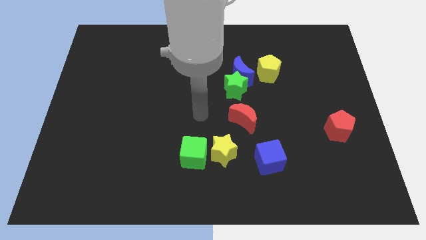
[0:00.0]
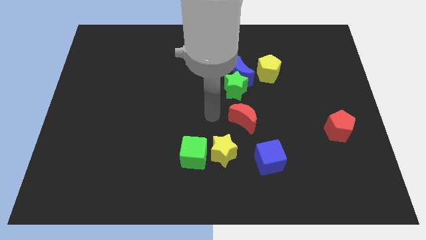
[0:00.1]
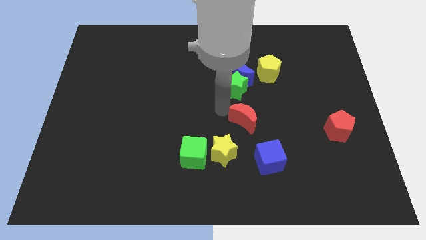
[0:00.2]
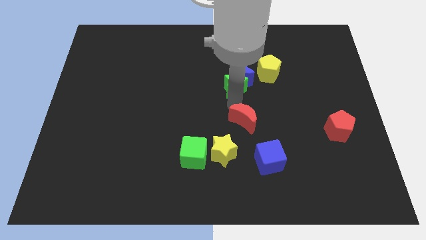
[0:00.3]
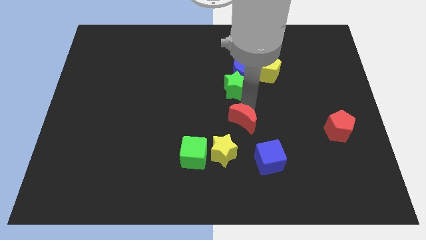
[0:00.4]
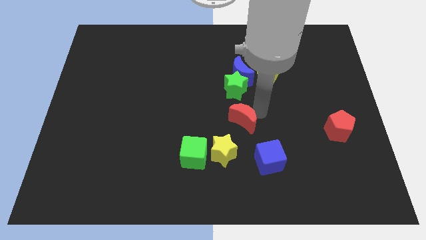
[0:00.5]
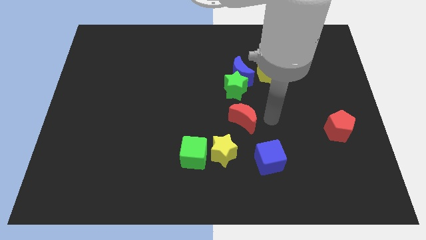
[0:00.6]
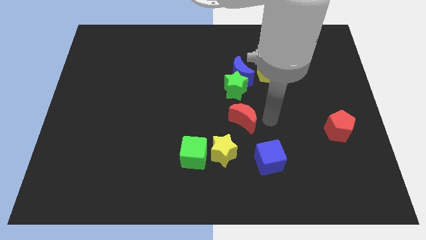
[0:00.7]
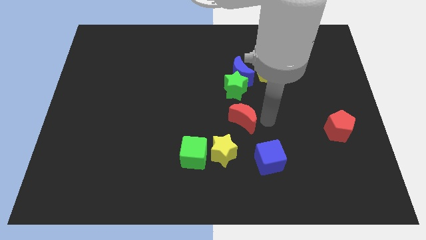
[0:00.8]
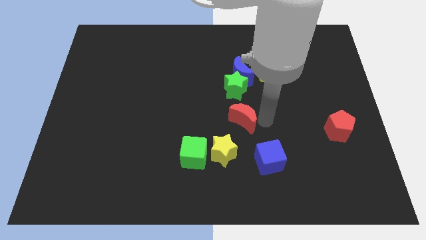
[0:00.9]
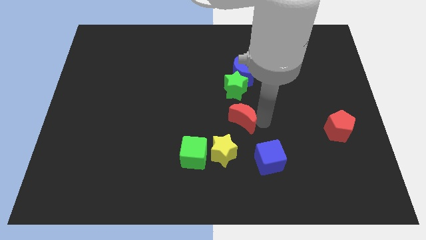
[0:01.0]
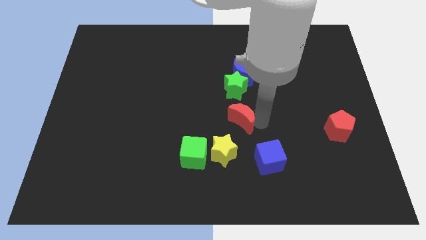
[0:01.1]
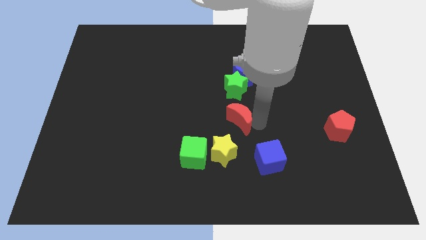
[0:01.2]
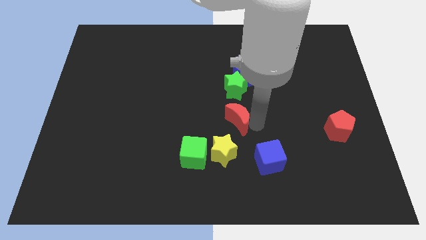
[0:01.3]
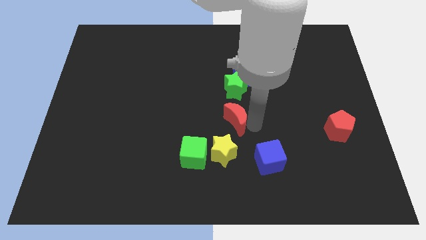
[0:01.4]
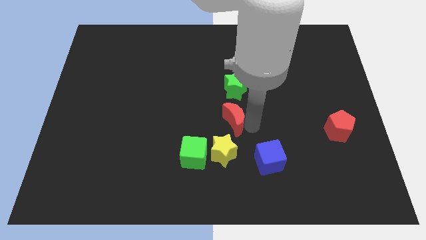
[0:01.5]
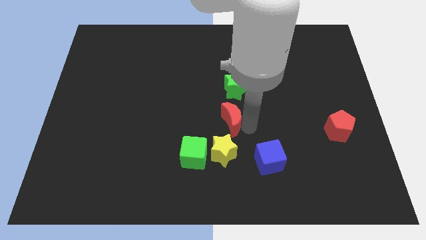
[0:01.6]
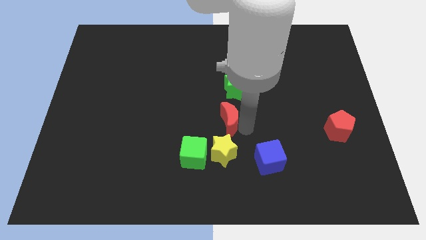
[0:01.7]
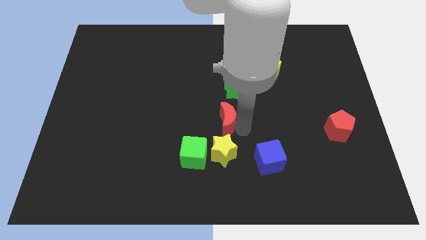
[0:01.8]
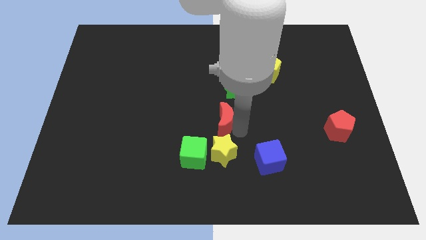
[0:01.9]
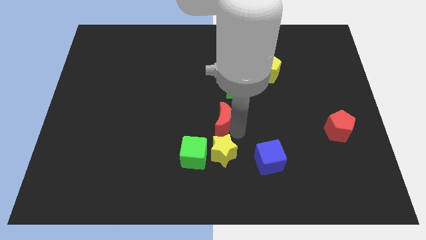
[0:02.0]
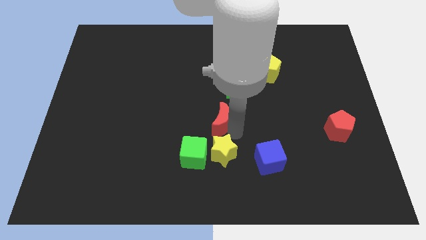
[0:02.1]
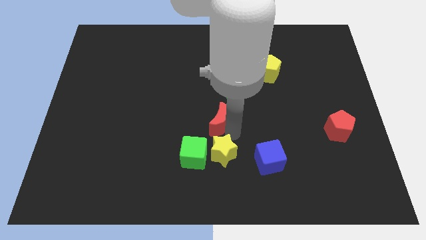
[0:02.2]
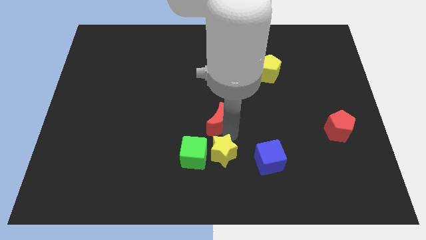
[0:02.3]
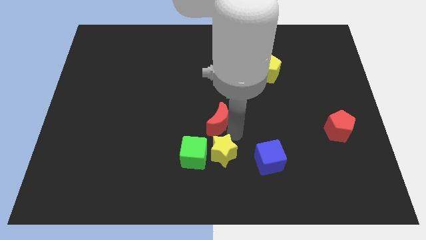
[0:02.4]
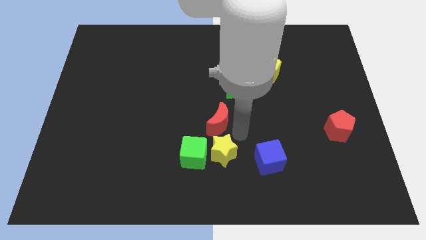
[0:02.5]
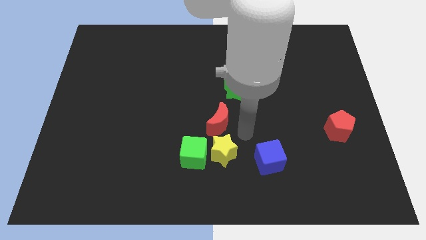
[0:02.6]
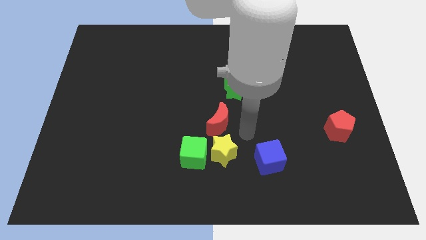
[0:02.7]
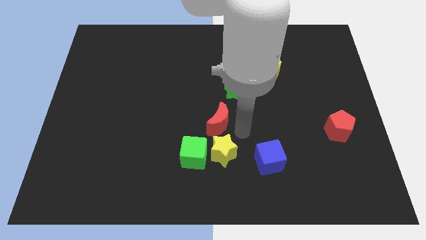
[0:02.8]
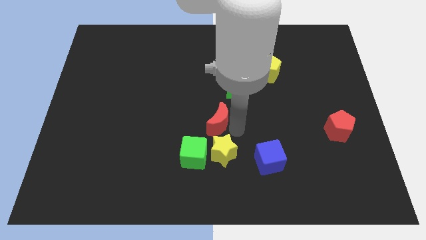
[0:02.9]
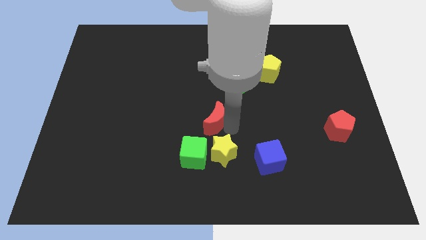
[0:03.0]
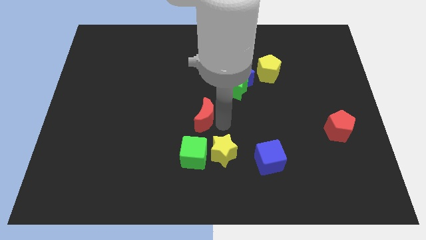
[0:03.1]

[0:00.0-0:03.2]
move the red moon somewhat left

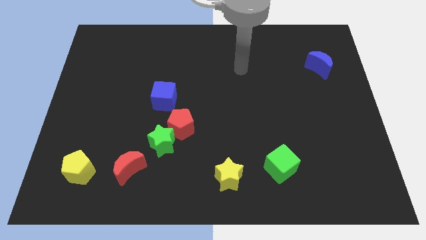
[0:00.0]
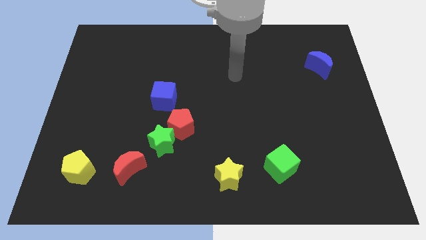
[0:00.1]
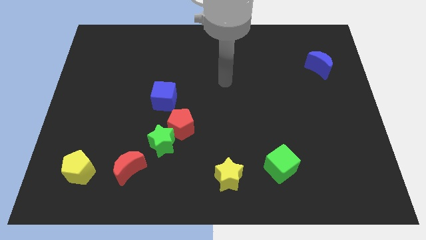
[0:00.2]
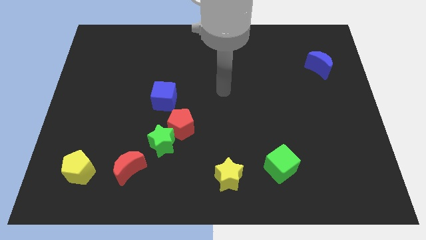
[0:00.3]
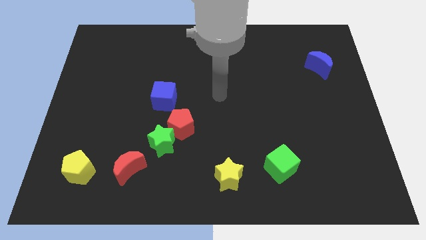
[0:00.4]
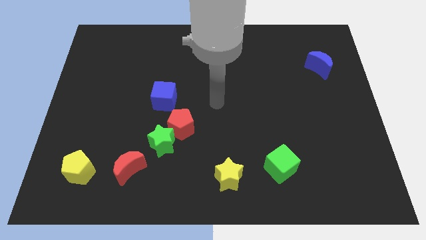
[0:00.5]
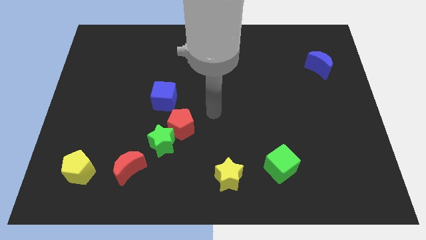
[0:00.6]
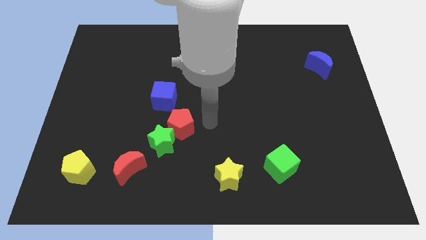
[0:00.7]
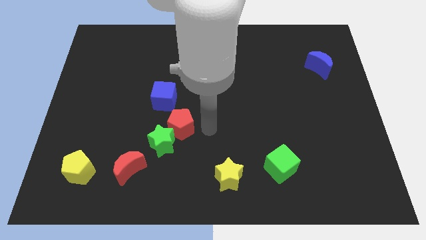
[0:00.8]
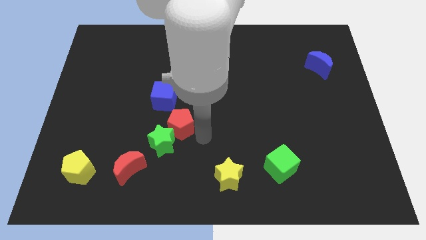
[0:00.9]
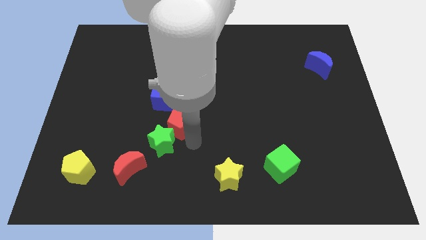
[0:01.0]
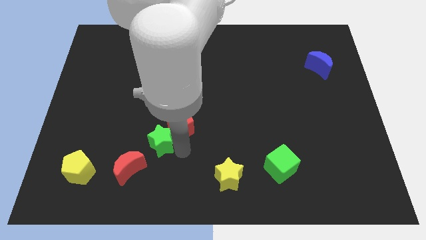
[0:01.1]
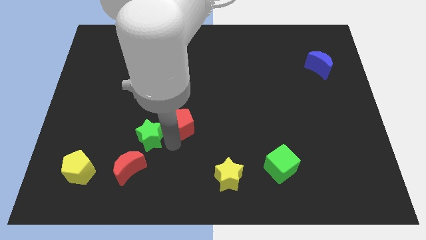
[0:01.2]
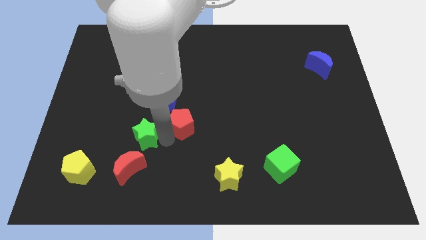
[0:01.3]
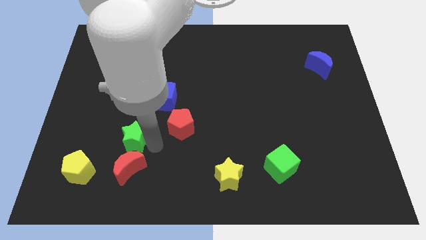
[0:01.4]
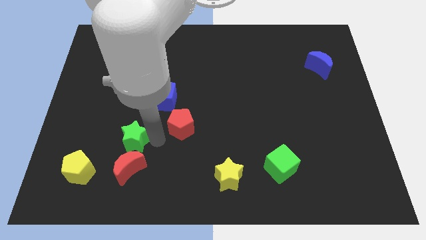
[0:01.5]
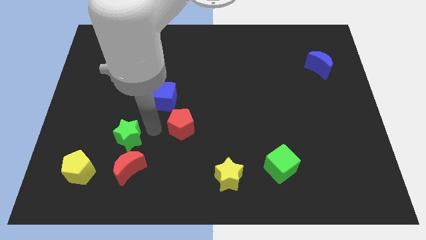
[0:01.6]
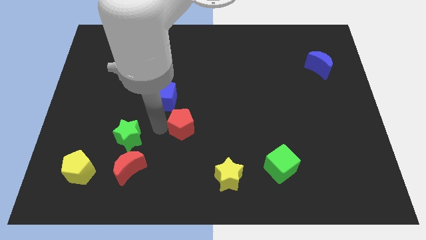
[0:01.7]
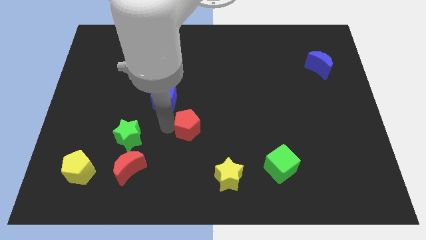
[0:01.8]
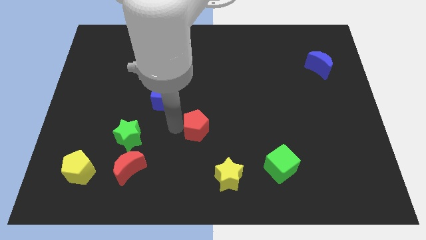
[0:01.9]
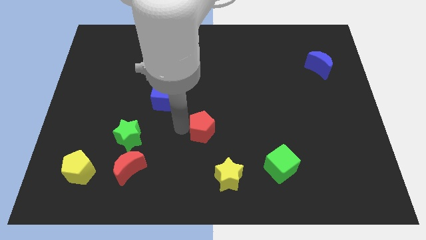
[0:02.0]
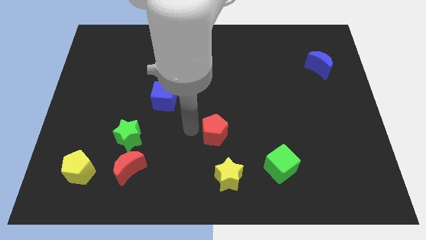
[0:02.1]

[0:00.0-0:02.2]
slide the red pentagon slightly to the right

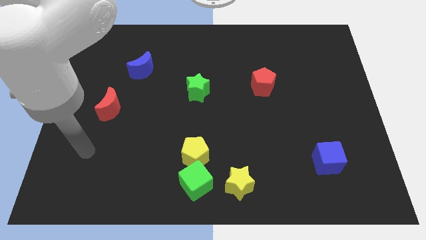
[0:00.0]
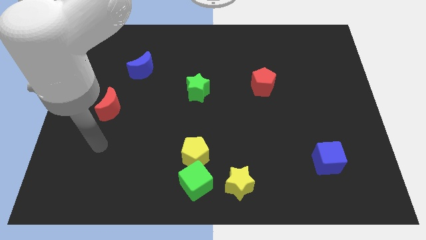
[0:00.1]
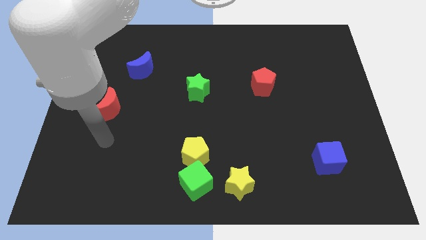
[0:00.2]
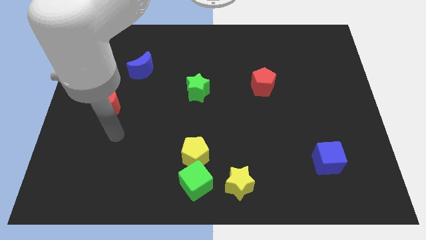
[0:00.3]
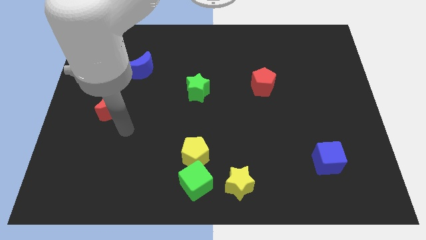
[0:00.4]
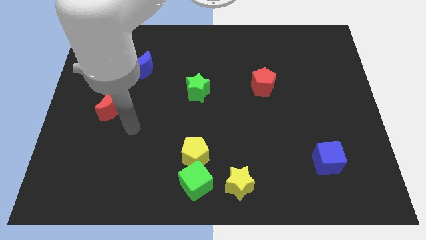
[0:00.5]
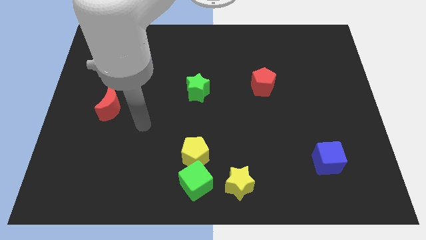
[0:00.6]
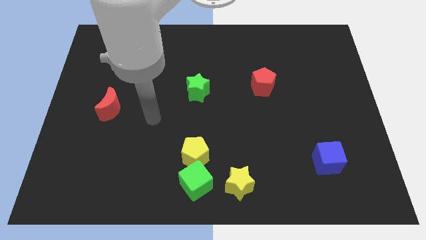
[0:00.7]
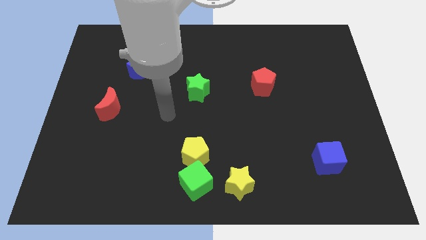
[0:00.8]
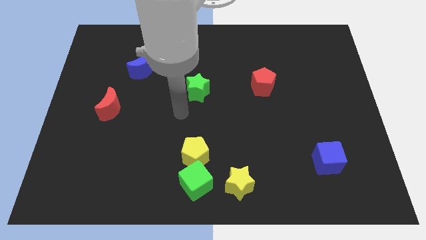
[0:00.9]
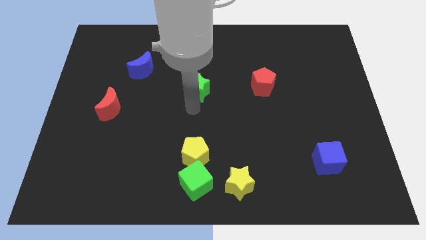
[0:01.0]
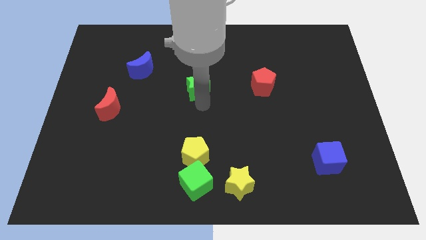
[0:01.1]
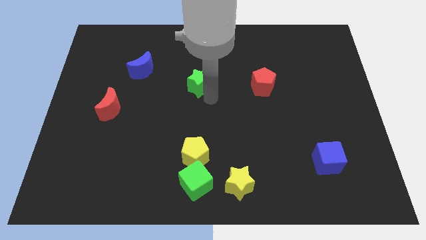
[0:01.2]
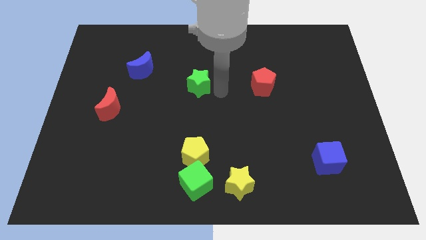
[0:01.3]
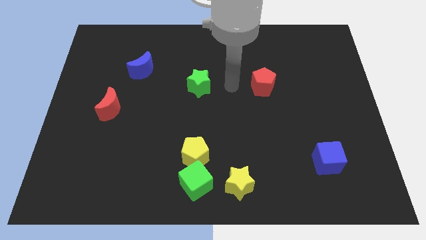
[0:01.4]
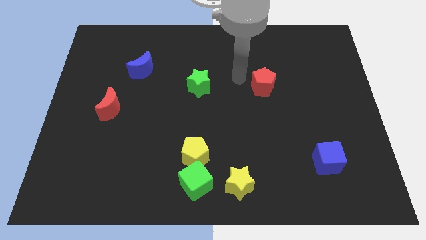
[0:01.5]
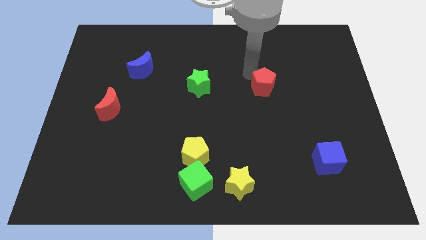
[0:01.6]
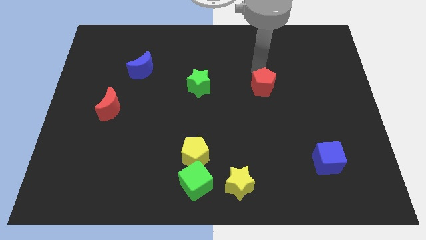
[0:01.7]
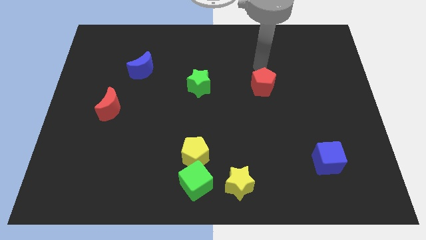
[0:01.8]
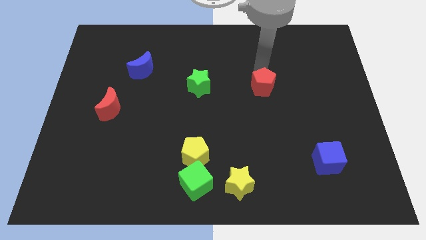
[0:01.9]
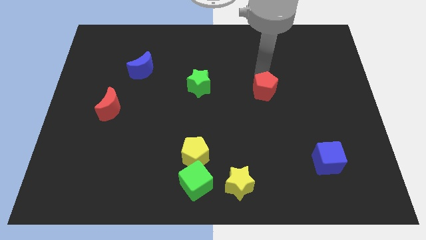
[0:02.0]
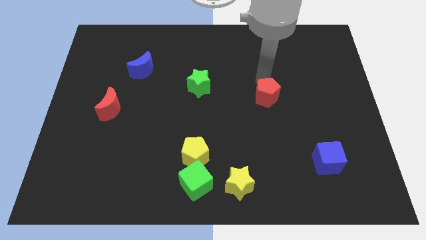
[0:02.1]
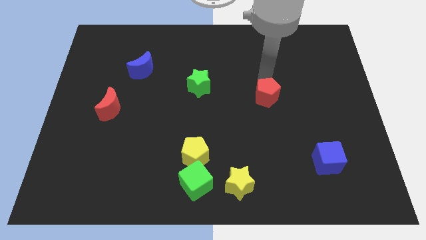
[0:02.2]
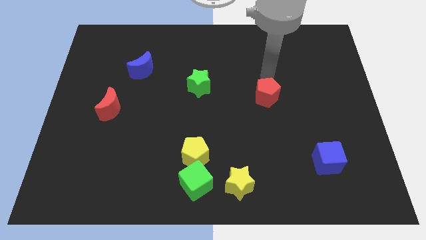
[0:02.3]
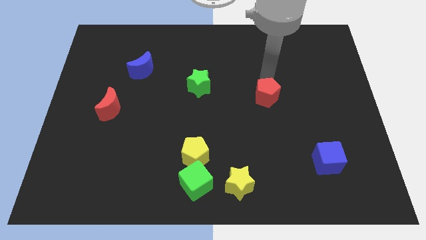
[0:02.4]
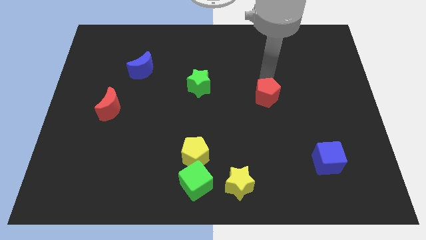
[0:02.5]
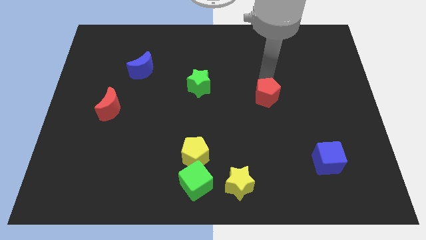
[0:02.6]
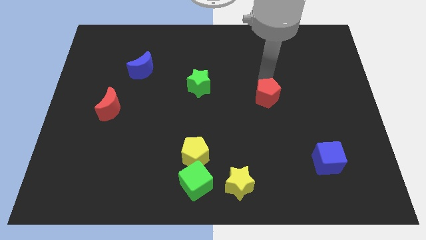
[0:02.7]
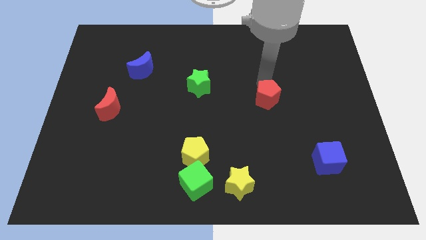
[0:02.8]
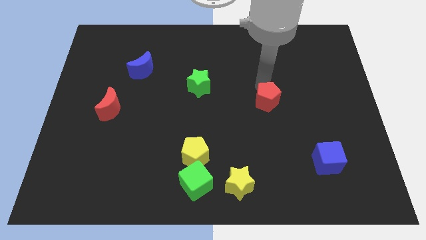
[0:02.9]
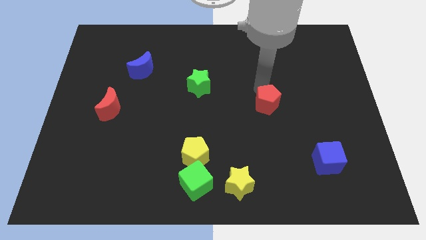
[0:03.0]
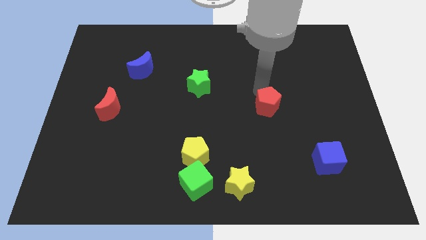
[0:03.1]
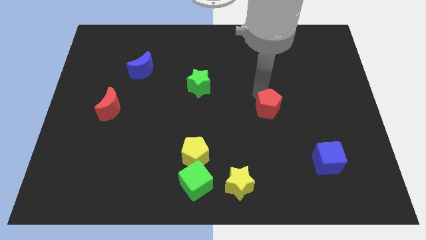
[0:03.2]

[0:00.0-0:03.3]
slightly slide the red pentagon downwards
